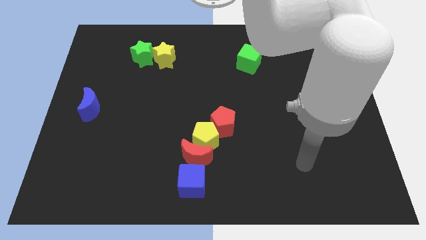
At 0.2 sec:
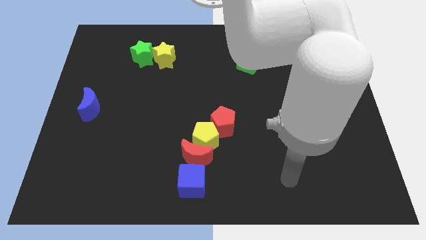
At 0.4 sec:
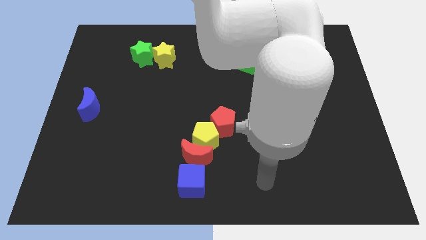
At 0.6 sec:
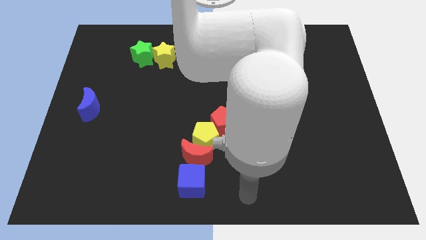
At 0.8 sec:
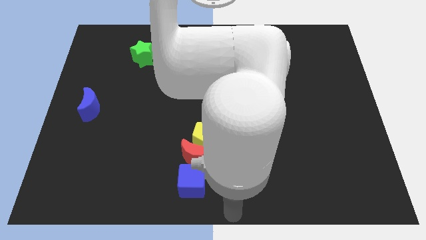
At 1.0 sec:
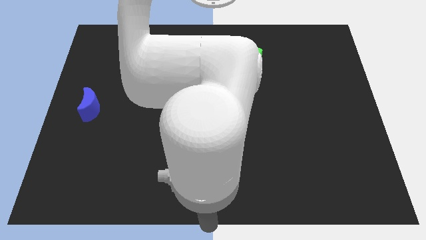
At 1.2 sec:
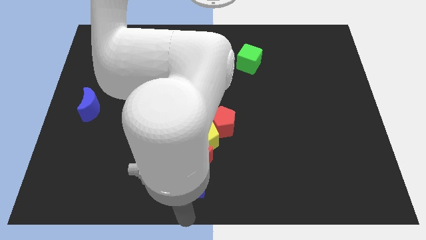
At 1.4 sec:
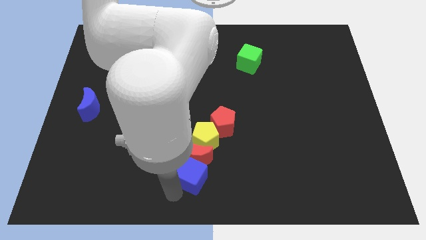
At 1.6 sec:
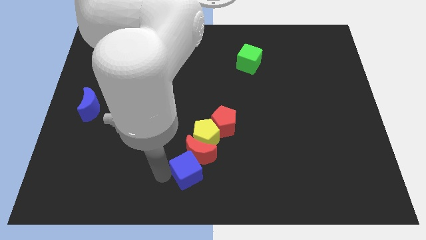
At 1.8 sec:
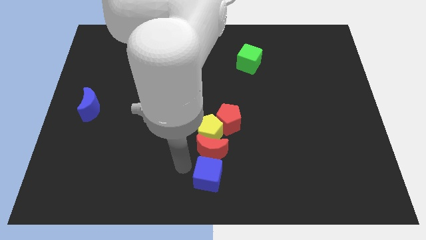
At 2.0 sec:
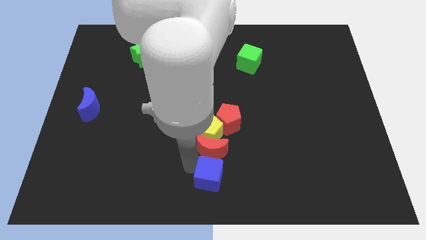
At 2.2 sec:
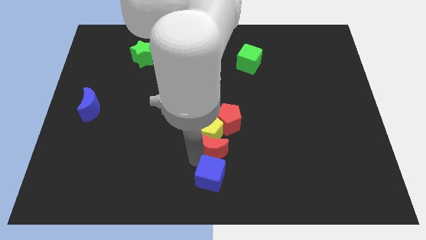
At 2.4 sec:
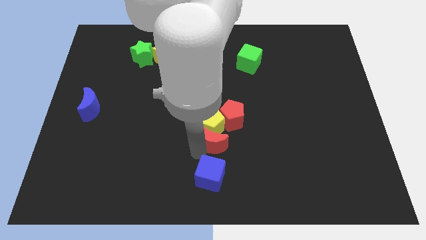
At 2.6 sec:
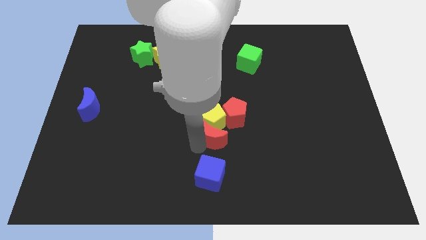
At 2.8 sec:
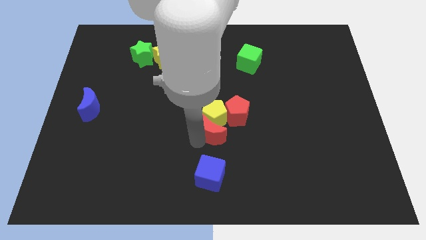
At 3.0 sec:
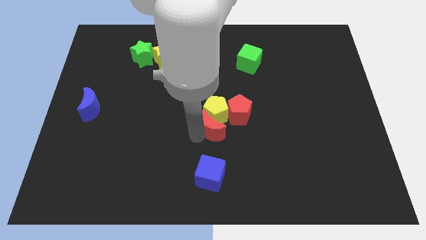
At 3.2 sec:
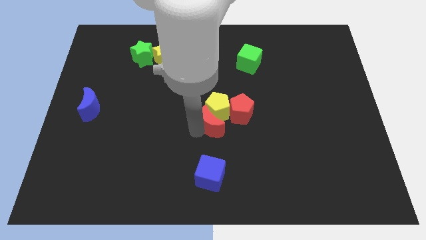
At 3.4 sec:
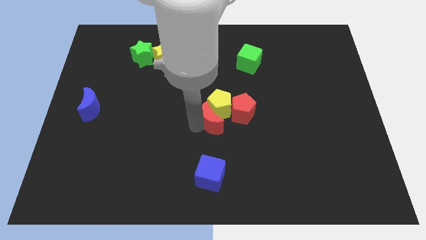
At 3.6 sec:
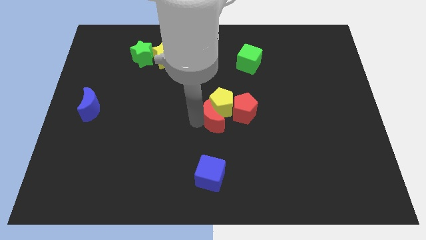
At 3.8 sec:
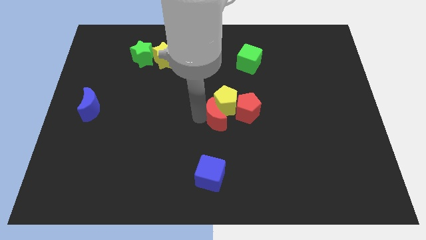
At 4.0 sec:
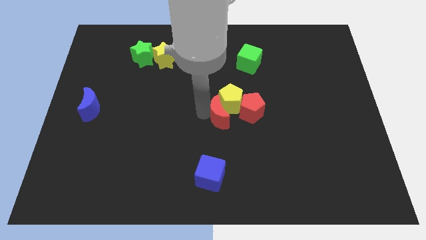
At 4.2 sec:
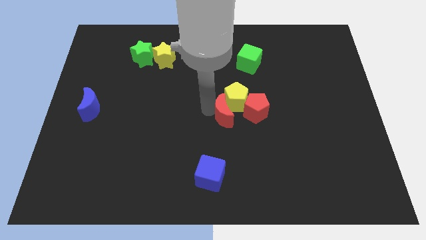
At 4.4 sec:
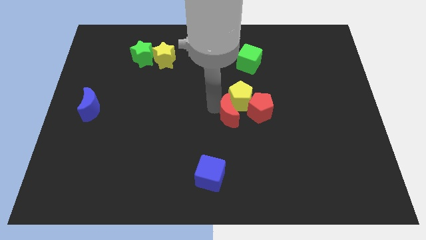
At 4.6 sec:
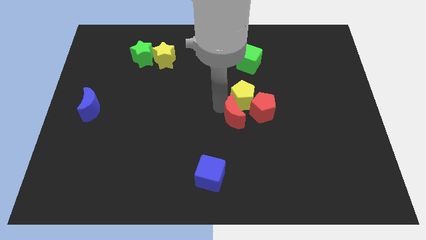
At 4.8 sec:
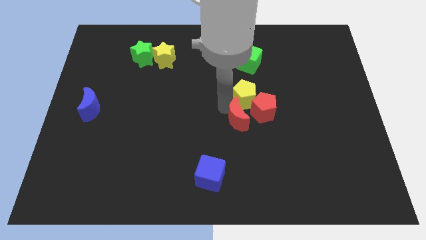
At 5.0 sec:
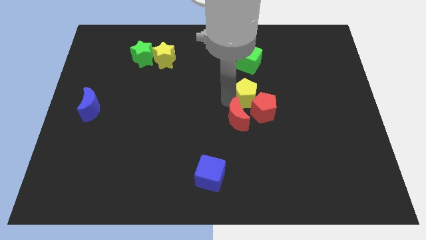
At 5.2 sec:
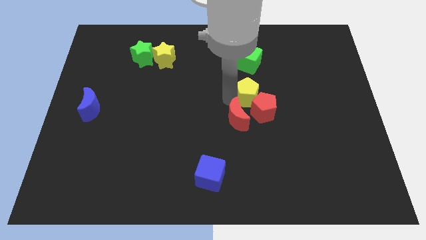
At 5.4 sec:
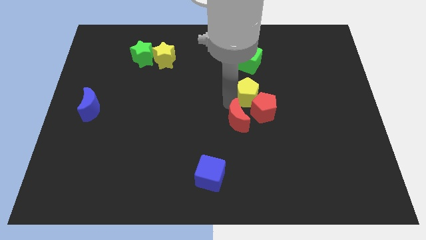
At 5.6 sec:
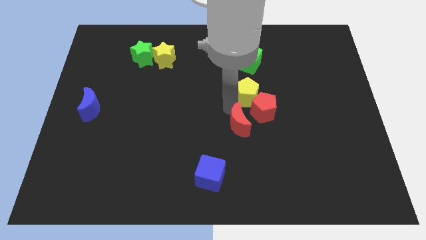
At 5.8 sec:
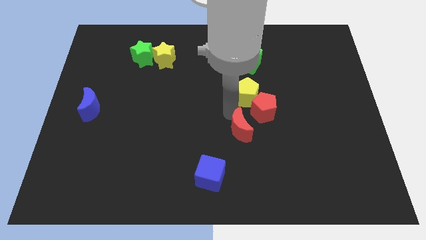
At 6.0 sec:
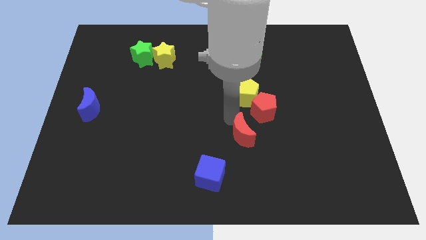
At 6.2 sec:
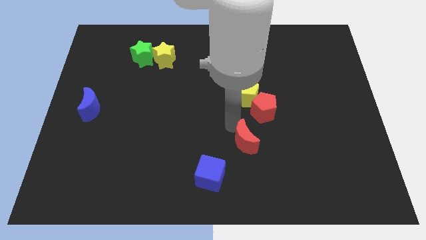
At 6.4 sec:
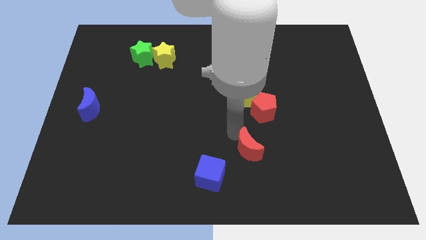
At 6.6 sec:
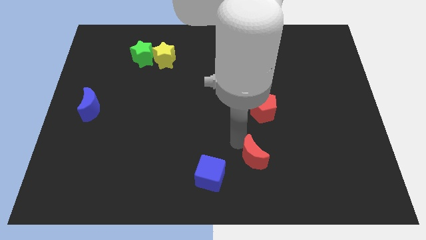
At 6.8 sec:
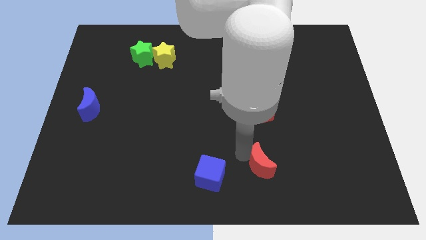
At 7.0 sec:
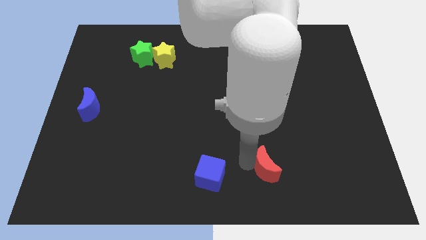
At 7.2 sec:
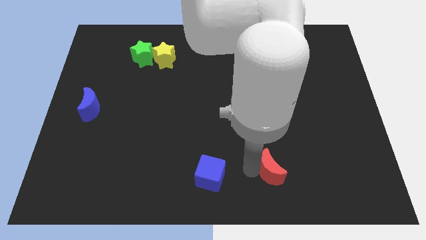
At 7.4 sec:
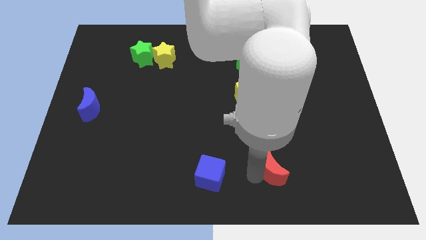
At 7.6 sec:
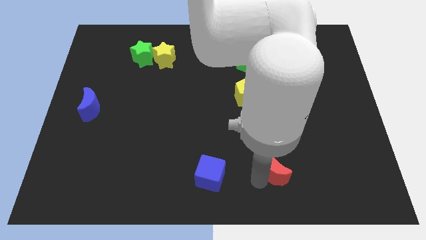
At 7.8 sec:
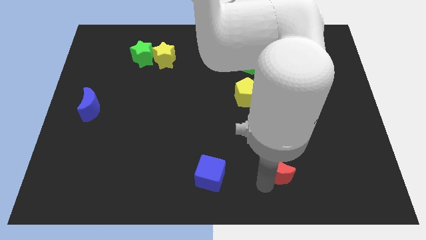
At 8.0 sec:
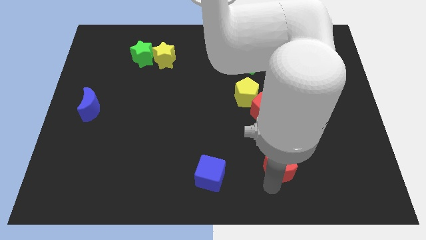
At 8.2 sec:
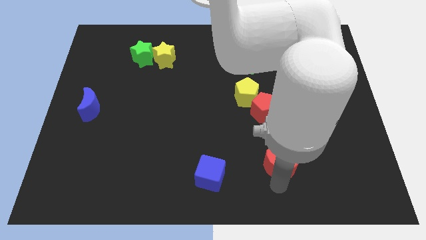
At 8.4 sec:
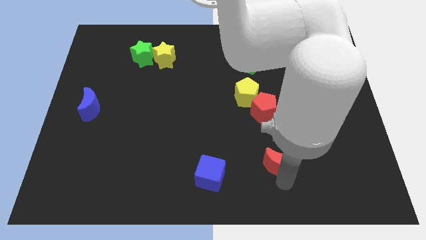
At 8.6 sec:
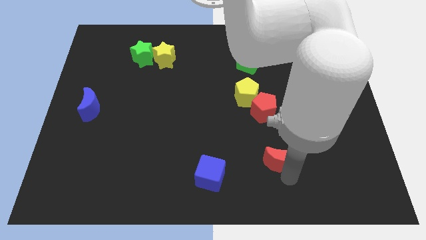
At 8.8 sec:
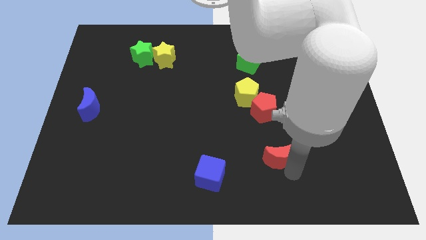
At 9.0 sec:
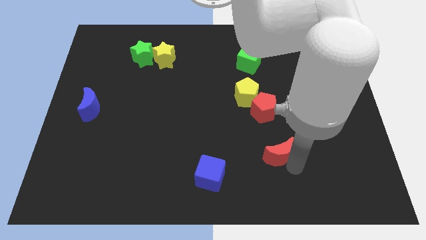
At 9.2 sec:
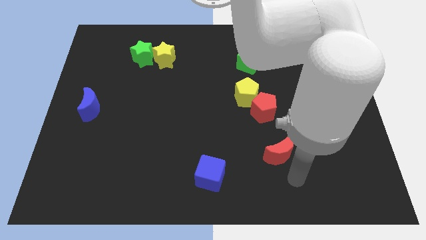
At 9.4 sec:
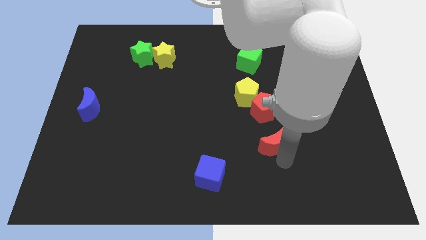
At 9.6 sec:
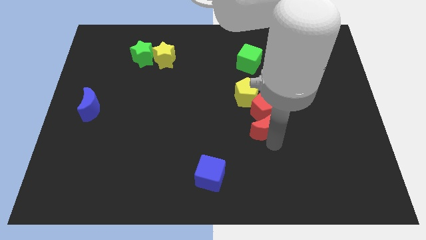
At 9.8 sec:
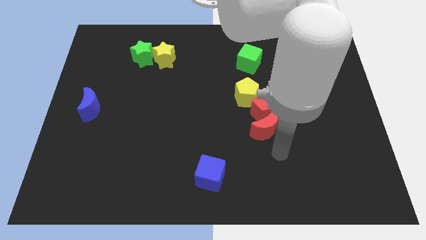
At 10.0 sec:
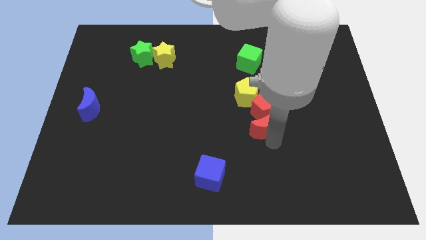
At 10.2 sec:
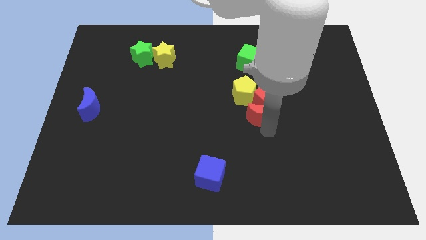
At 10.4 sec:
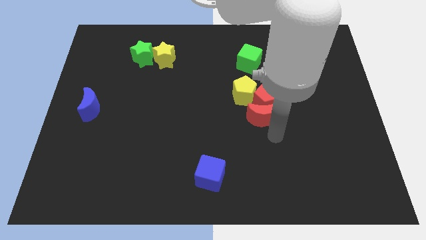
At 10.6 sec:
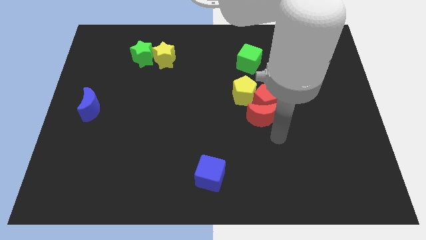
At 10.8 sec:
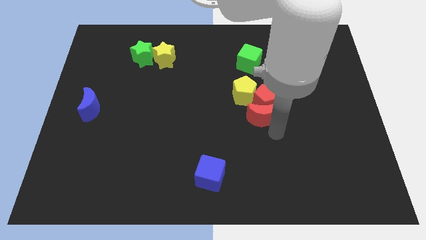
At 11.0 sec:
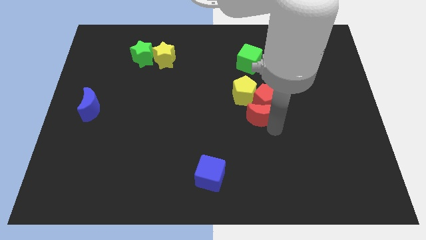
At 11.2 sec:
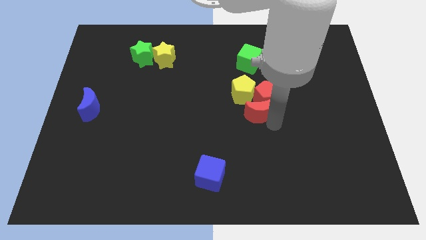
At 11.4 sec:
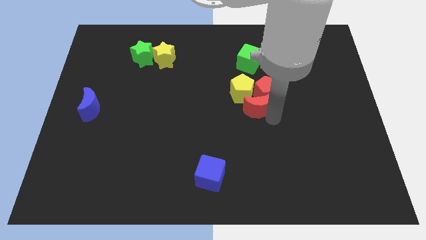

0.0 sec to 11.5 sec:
push the red moon to the bottom side of the green cube

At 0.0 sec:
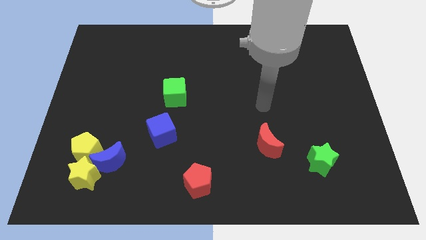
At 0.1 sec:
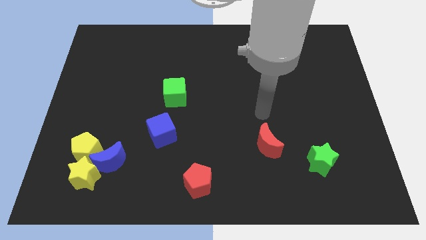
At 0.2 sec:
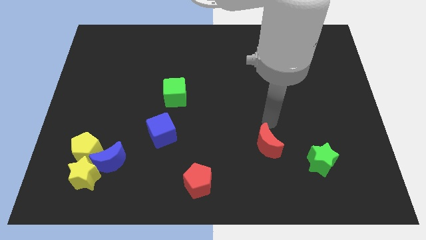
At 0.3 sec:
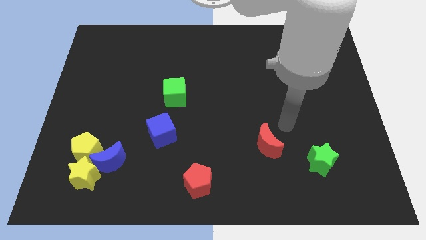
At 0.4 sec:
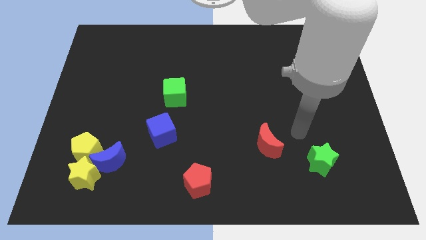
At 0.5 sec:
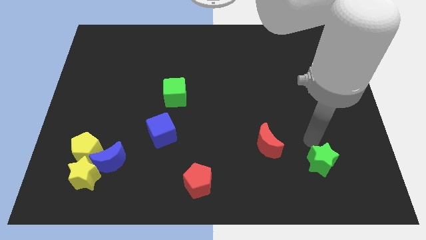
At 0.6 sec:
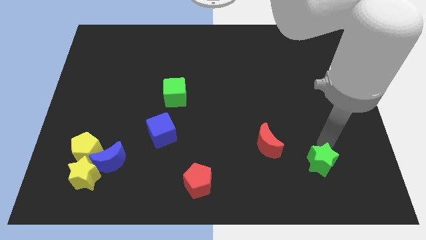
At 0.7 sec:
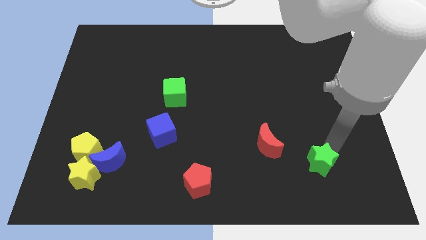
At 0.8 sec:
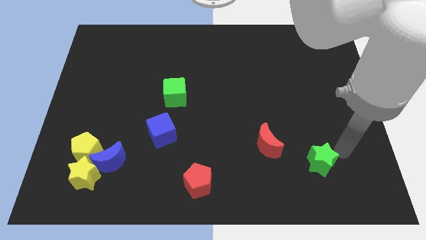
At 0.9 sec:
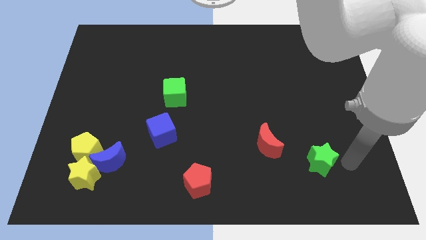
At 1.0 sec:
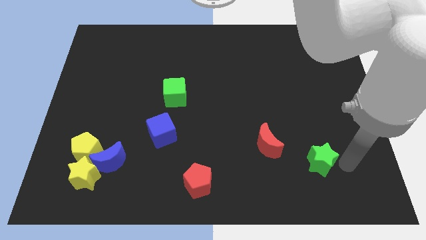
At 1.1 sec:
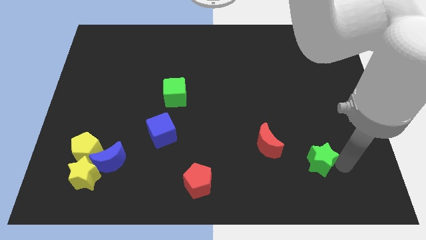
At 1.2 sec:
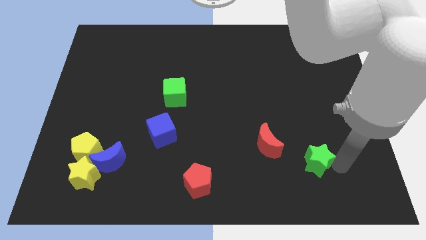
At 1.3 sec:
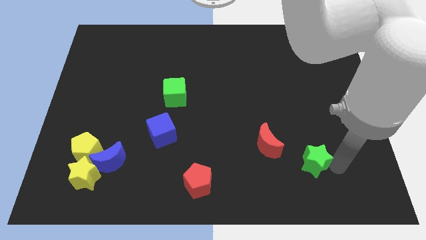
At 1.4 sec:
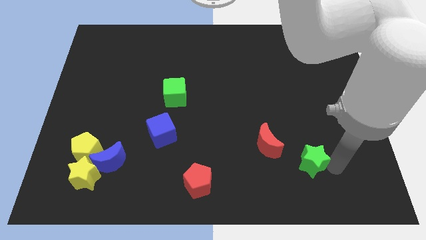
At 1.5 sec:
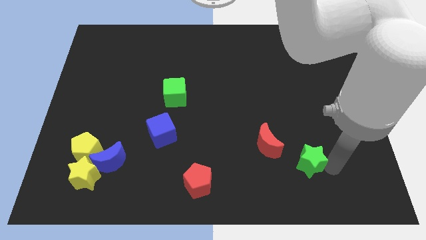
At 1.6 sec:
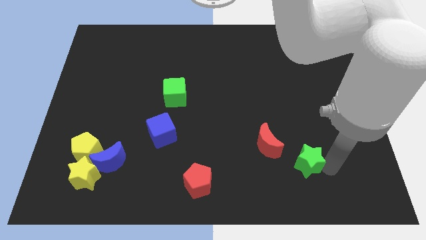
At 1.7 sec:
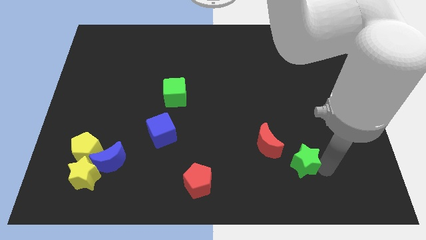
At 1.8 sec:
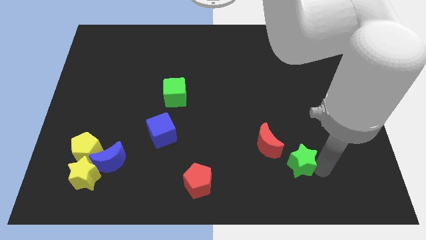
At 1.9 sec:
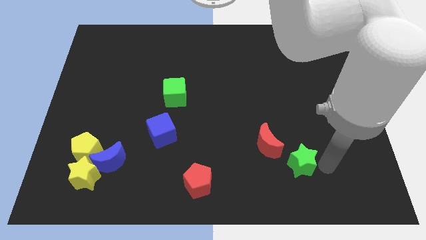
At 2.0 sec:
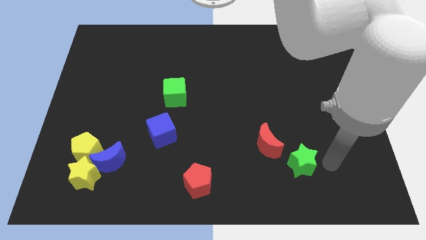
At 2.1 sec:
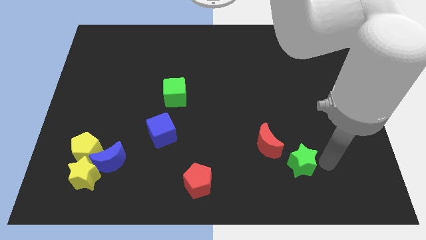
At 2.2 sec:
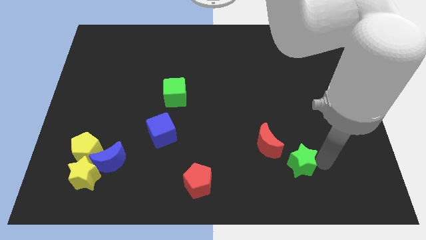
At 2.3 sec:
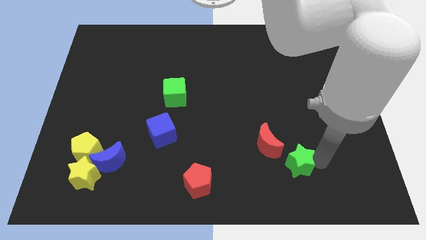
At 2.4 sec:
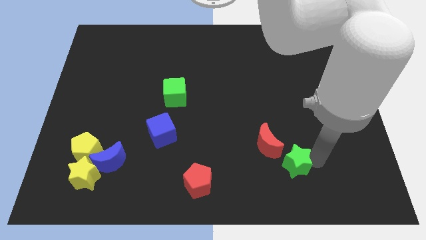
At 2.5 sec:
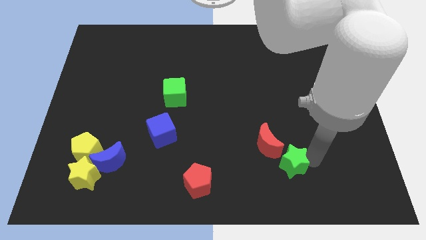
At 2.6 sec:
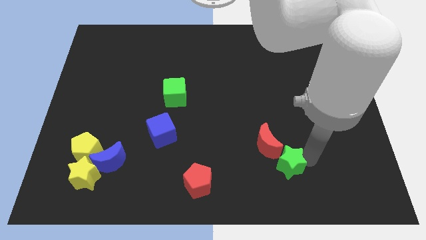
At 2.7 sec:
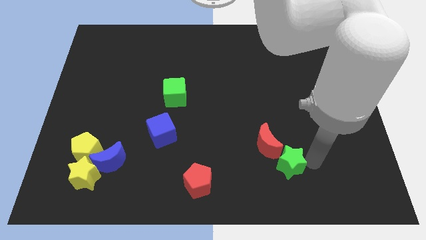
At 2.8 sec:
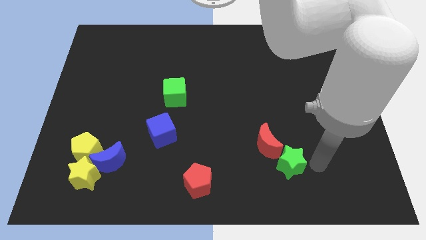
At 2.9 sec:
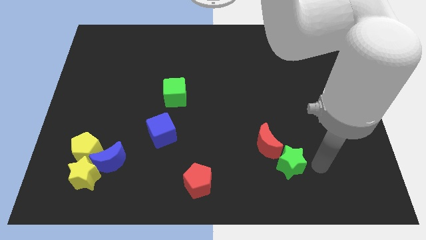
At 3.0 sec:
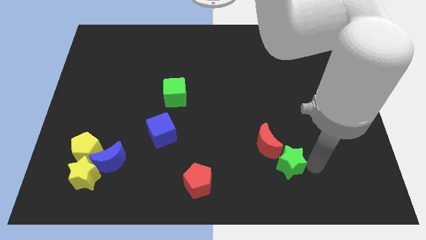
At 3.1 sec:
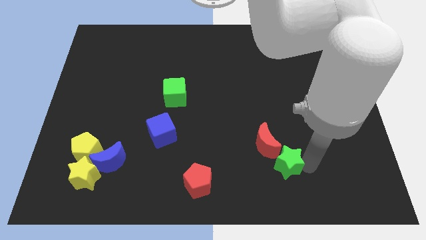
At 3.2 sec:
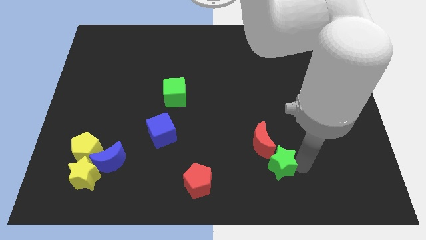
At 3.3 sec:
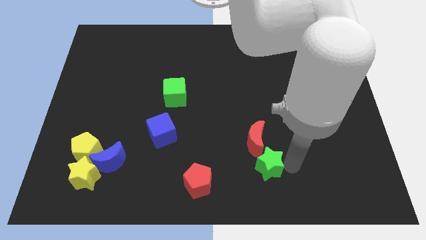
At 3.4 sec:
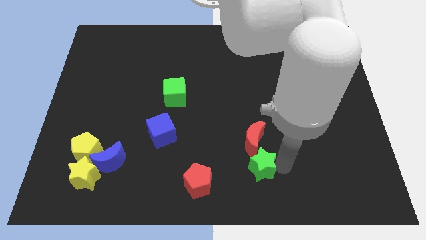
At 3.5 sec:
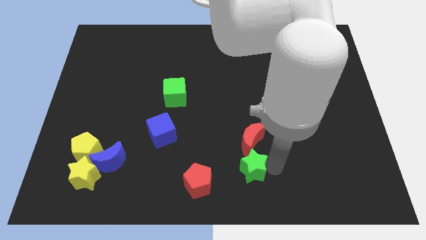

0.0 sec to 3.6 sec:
push the green star to the bottom left of the red moon
